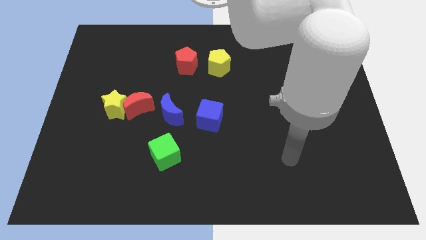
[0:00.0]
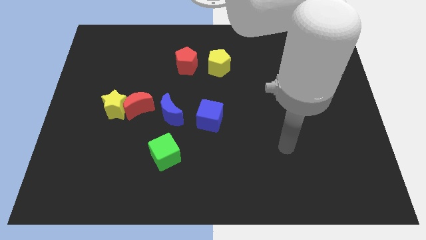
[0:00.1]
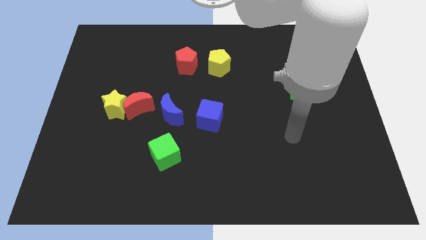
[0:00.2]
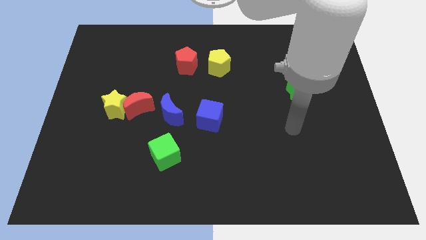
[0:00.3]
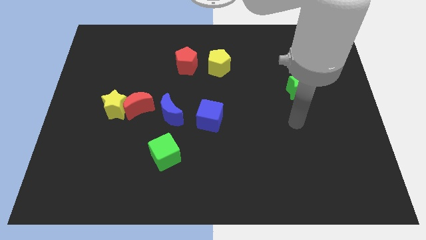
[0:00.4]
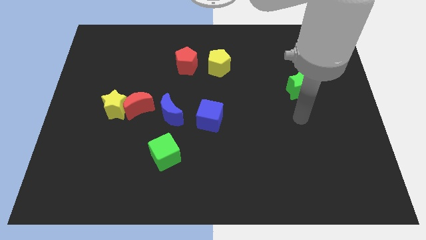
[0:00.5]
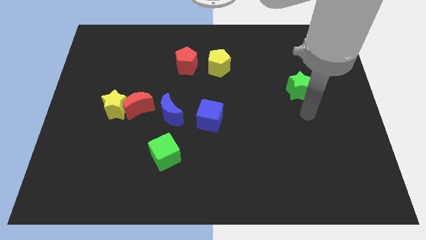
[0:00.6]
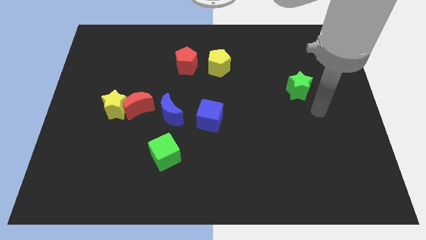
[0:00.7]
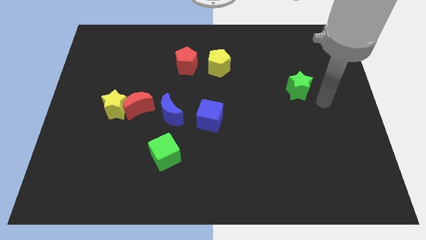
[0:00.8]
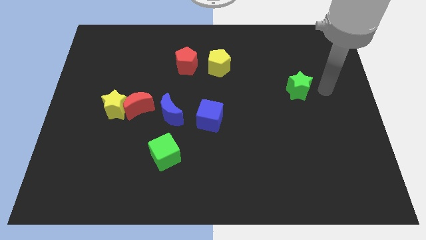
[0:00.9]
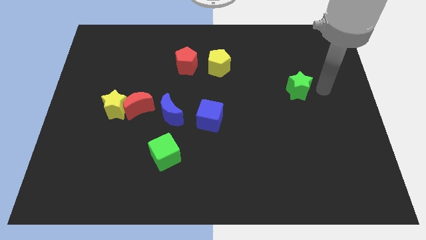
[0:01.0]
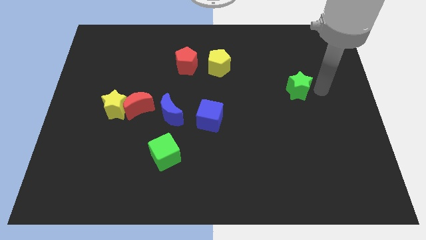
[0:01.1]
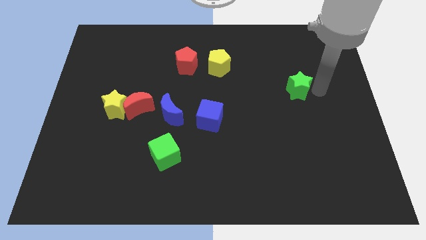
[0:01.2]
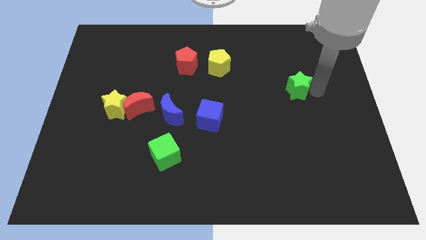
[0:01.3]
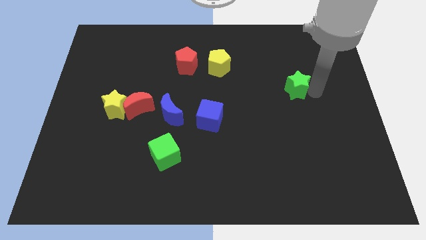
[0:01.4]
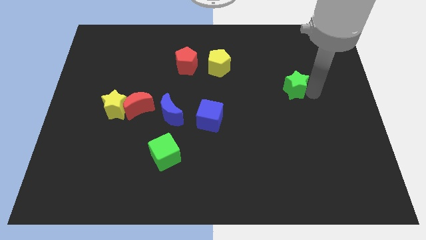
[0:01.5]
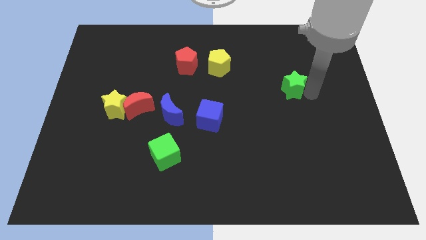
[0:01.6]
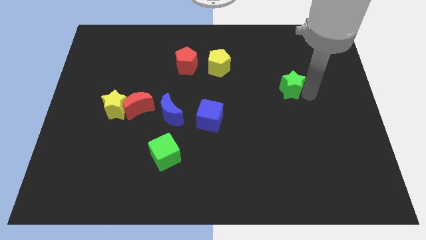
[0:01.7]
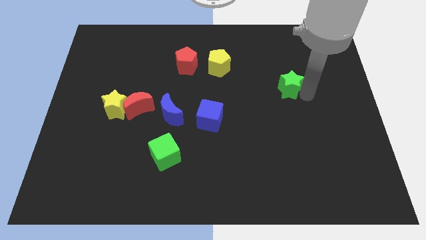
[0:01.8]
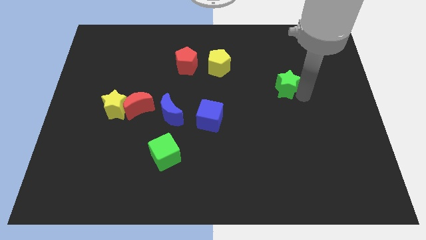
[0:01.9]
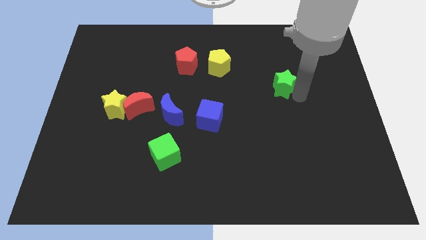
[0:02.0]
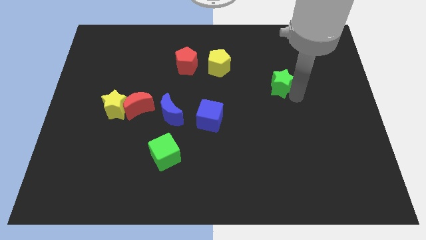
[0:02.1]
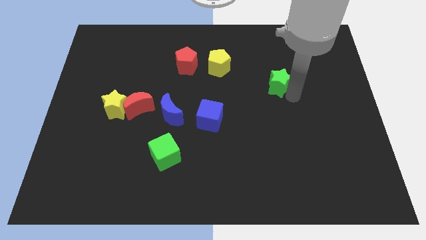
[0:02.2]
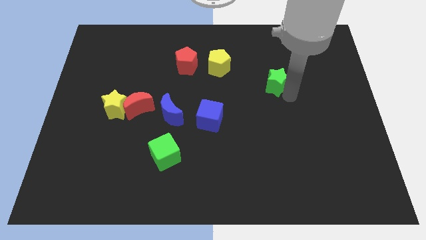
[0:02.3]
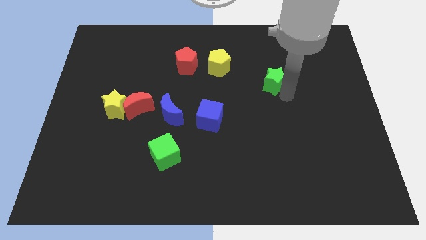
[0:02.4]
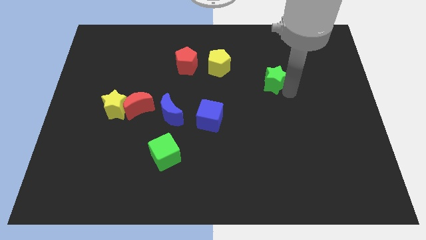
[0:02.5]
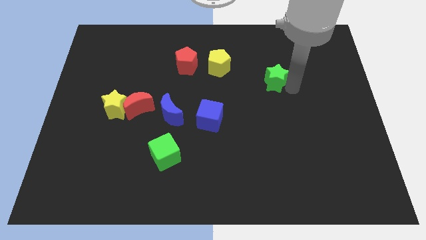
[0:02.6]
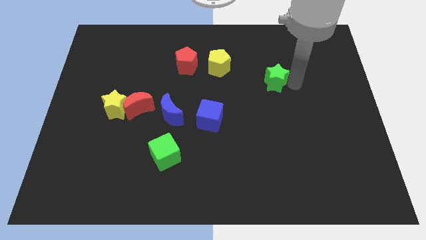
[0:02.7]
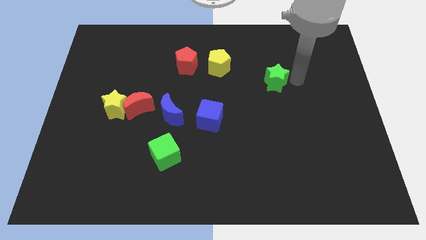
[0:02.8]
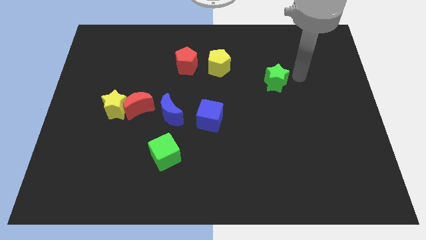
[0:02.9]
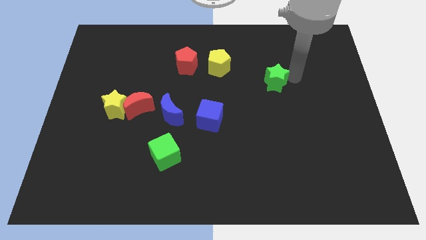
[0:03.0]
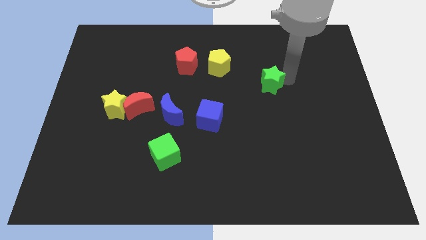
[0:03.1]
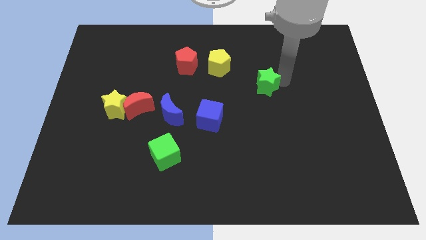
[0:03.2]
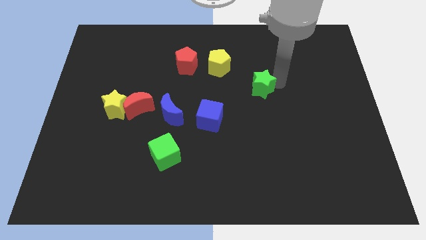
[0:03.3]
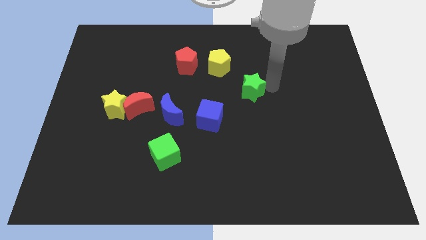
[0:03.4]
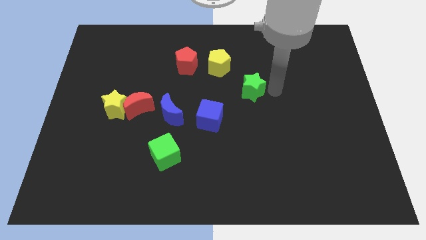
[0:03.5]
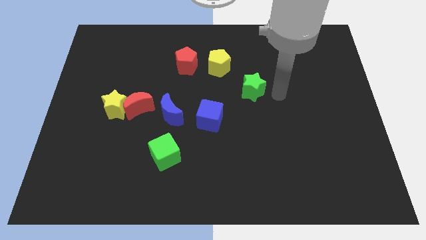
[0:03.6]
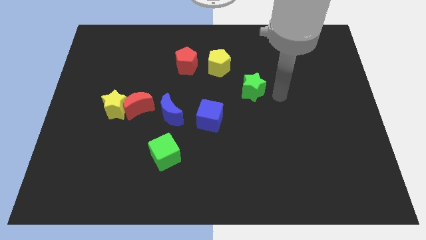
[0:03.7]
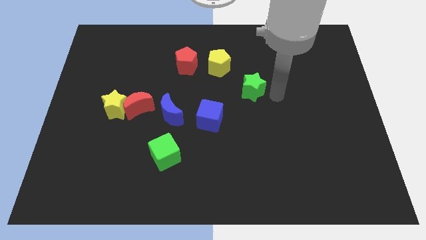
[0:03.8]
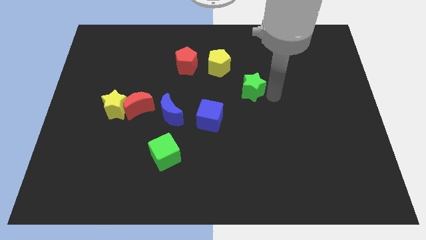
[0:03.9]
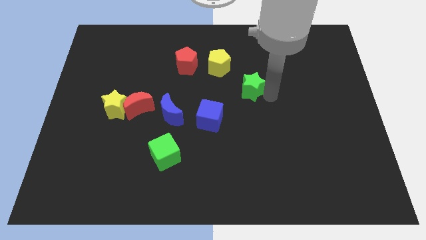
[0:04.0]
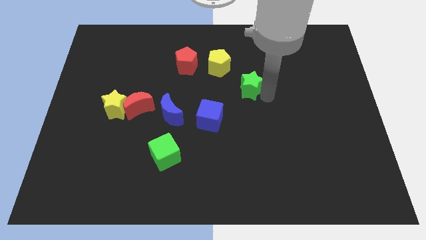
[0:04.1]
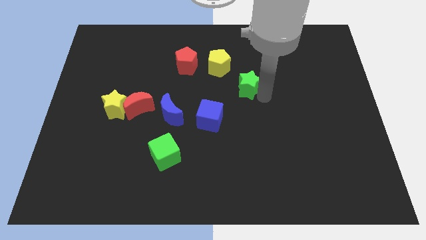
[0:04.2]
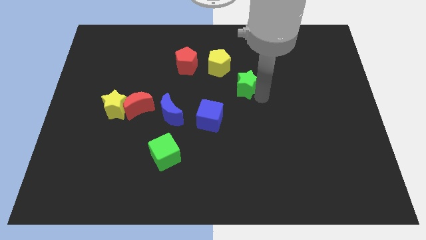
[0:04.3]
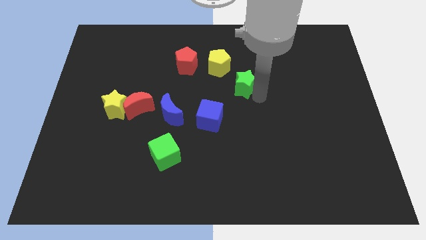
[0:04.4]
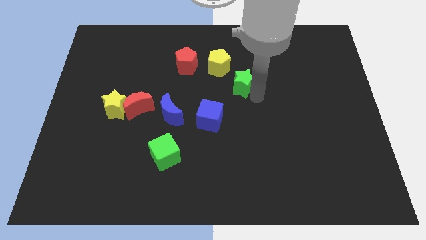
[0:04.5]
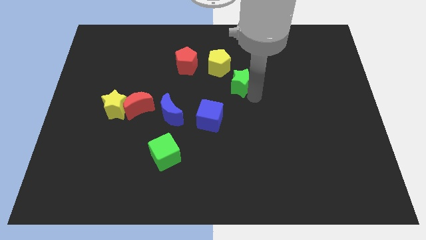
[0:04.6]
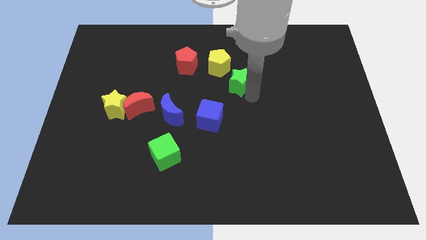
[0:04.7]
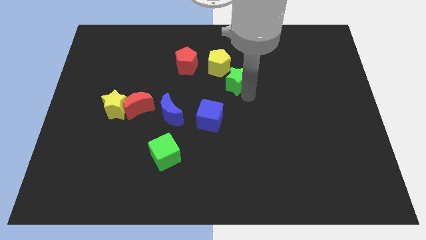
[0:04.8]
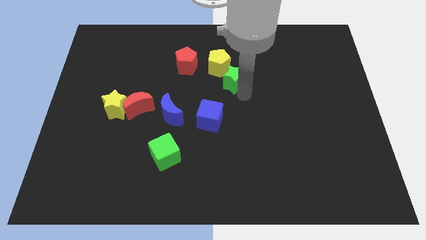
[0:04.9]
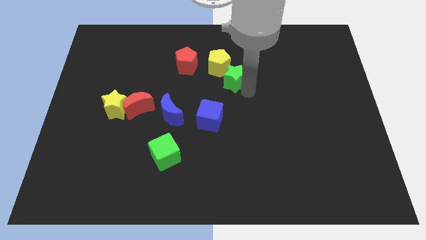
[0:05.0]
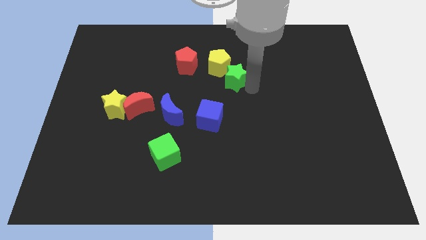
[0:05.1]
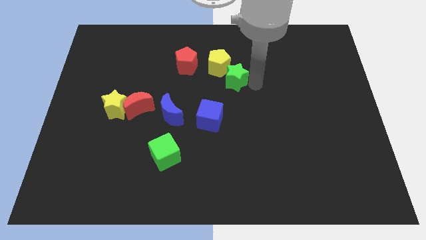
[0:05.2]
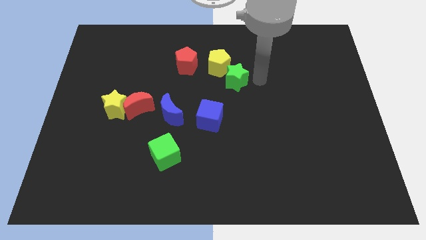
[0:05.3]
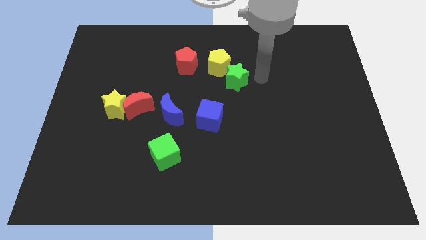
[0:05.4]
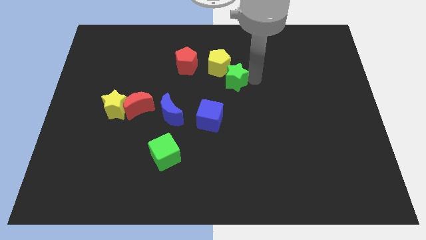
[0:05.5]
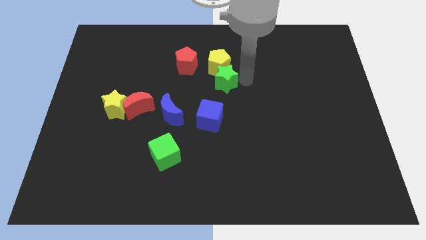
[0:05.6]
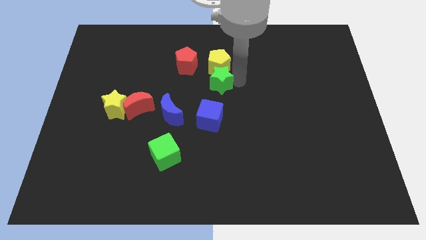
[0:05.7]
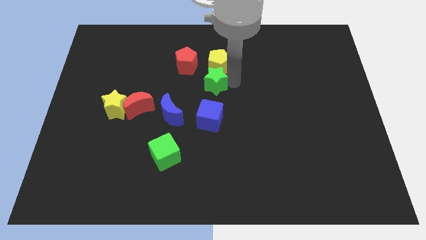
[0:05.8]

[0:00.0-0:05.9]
slide the green star left

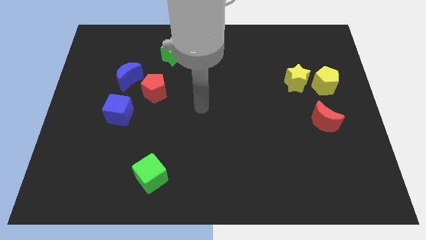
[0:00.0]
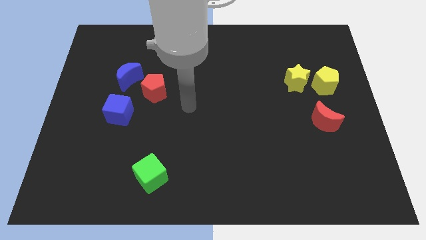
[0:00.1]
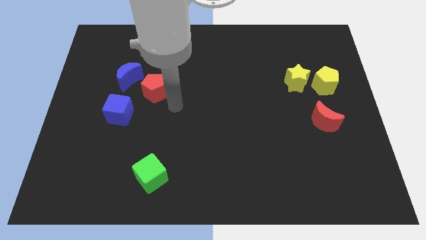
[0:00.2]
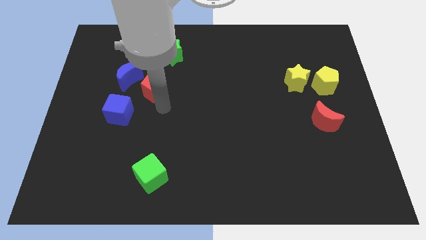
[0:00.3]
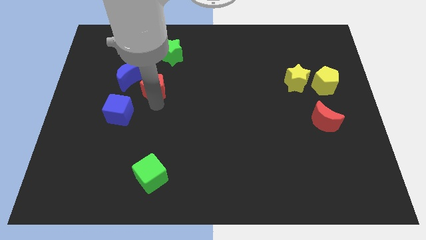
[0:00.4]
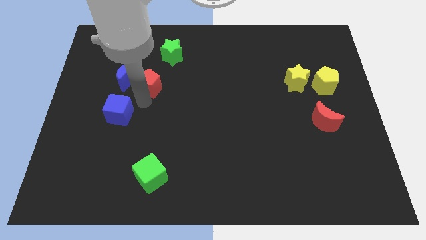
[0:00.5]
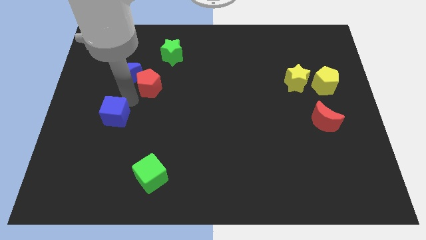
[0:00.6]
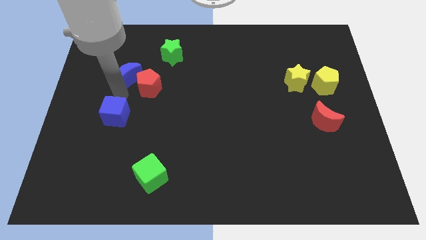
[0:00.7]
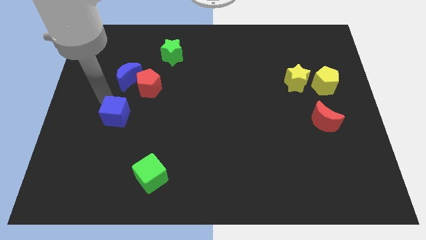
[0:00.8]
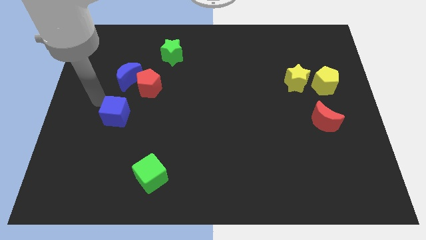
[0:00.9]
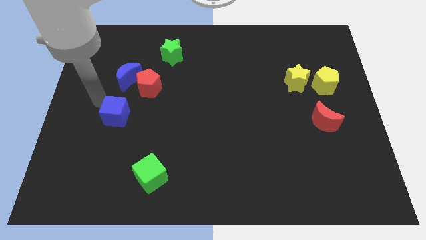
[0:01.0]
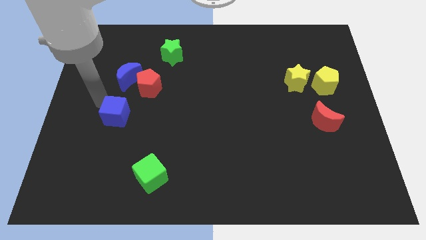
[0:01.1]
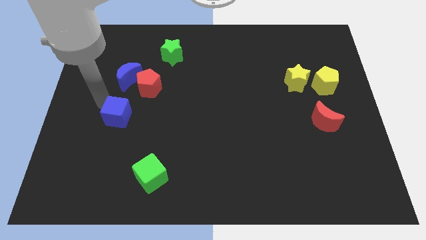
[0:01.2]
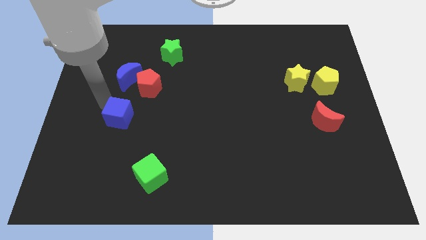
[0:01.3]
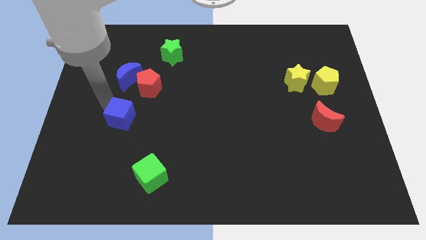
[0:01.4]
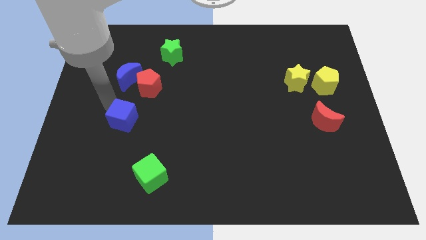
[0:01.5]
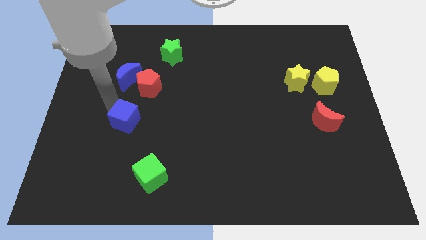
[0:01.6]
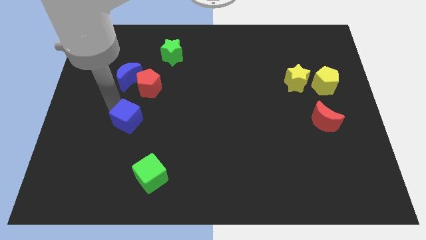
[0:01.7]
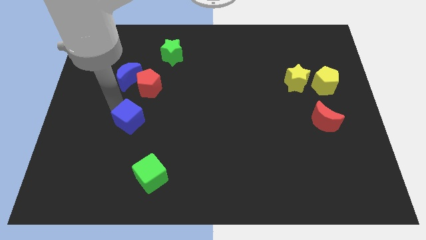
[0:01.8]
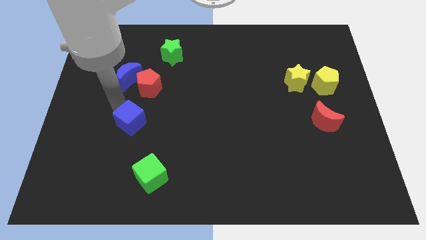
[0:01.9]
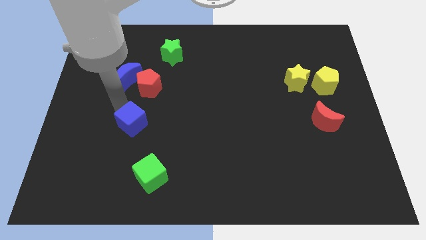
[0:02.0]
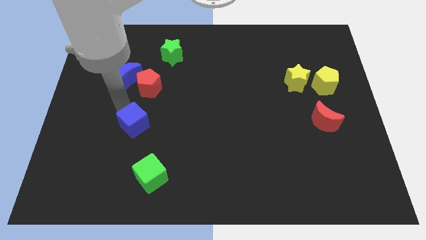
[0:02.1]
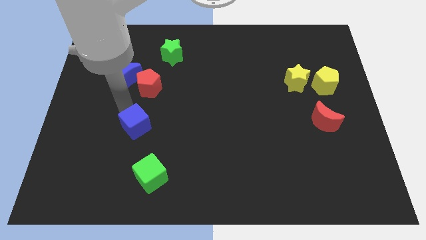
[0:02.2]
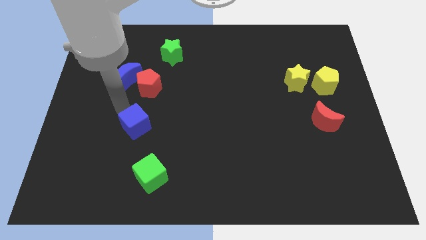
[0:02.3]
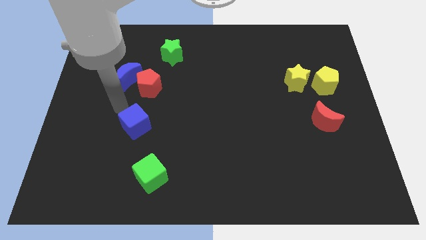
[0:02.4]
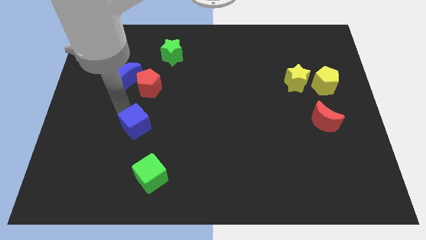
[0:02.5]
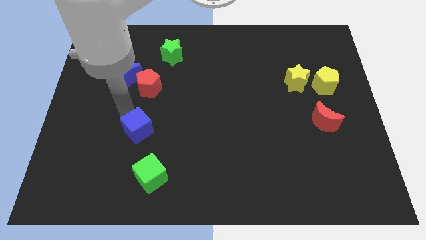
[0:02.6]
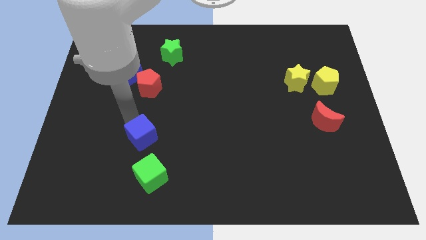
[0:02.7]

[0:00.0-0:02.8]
move the blue cube a little downwards and right diagonally
